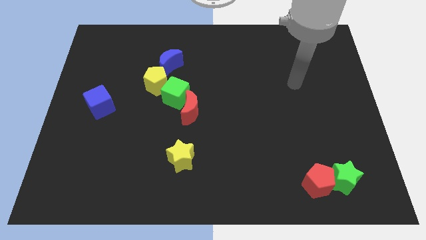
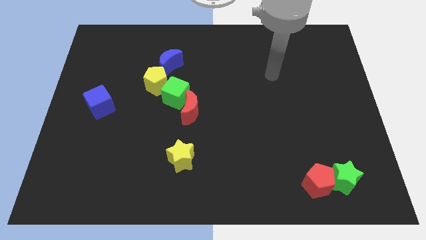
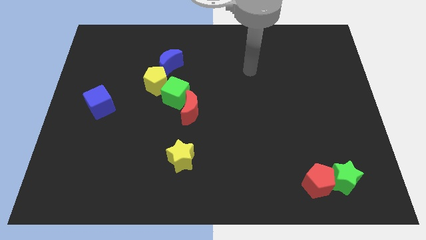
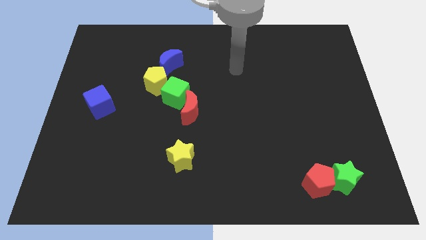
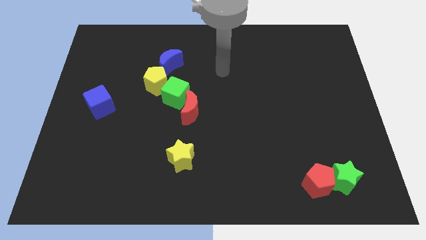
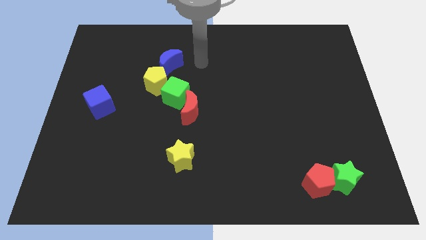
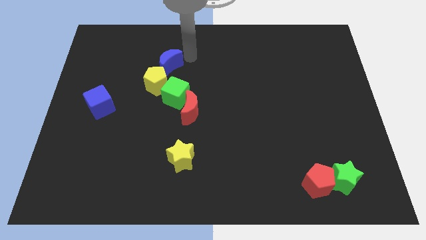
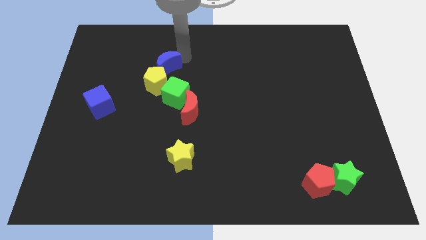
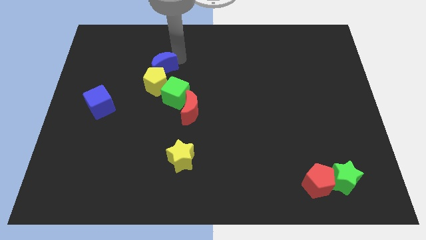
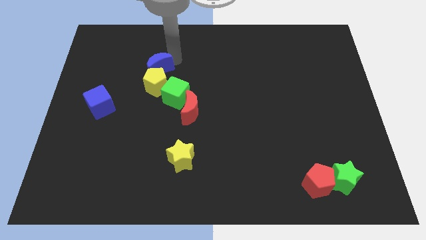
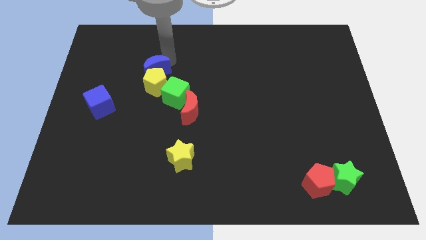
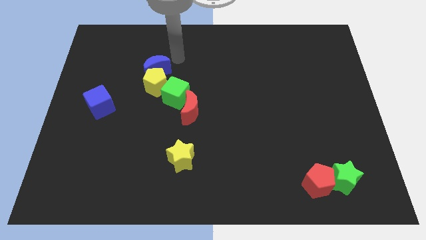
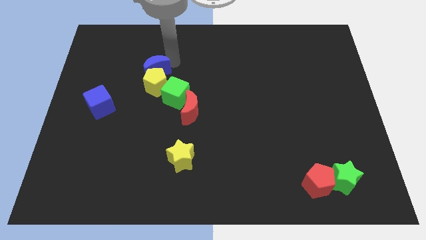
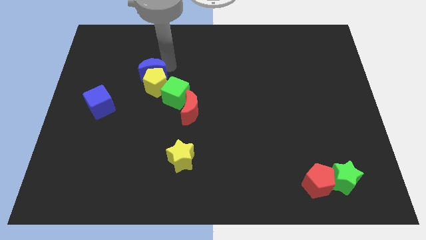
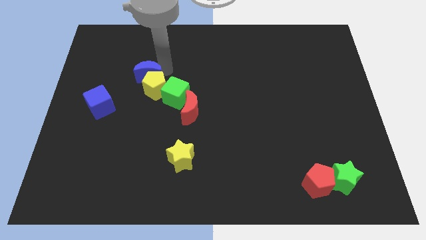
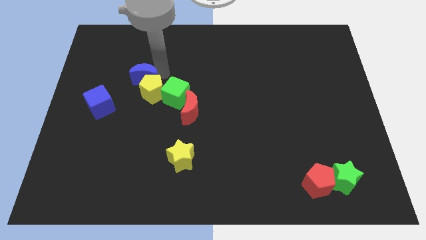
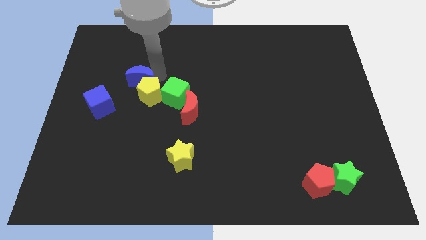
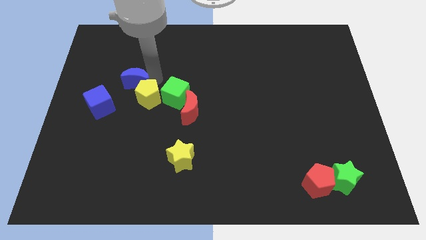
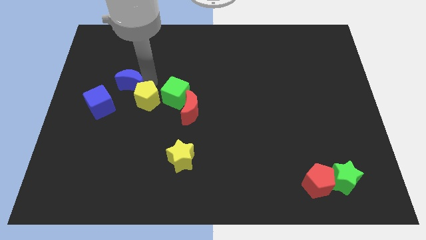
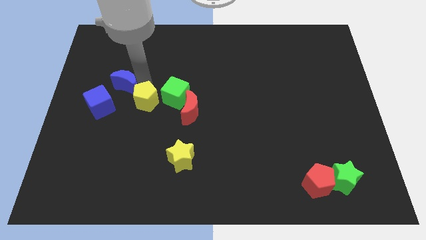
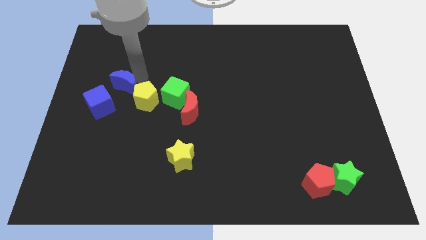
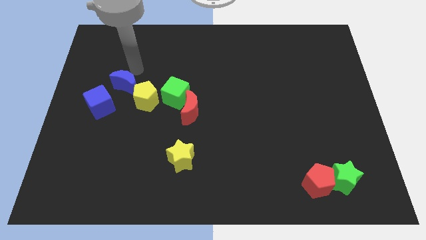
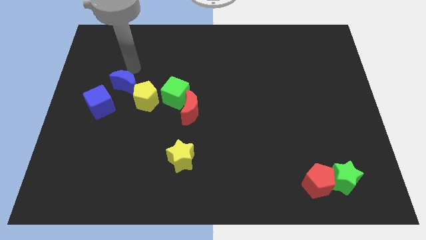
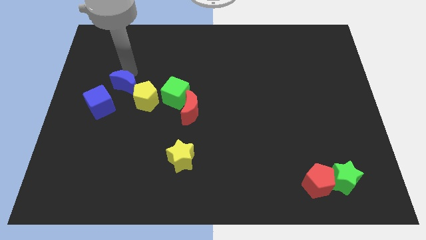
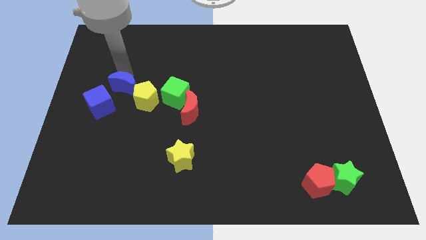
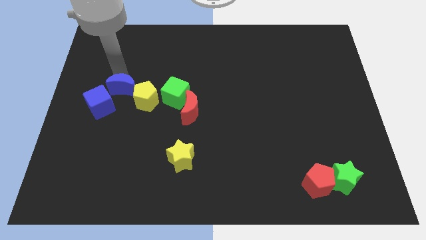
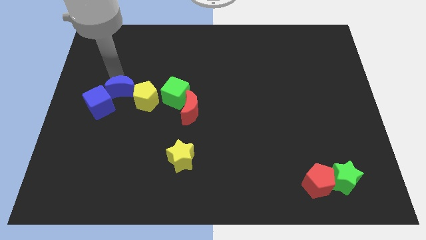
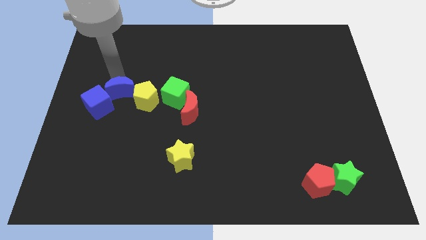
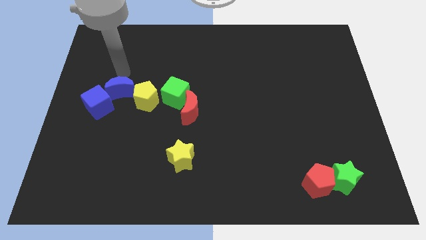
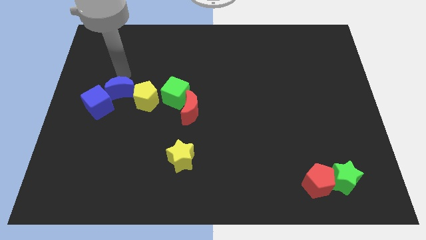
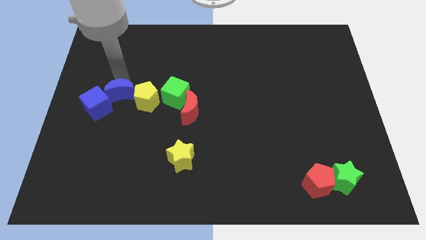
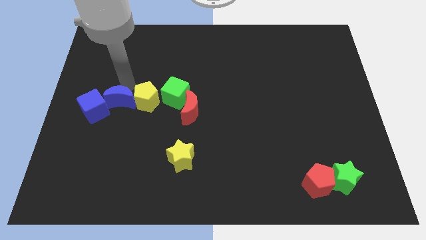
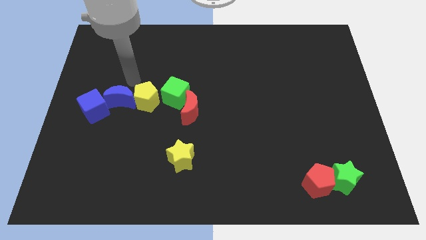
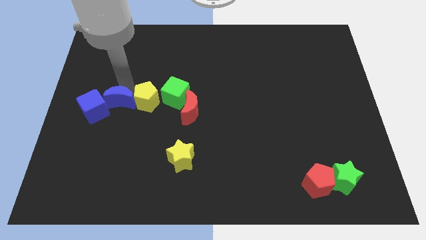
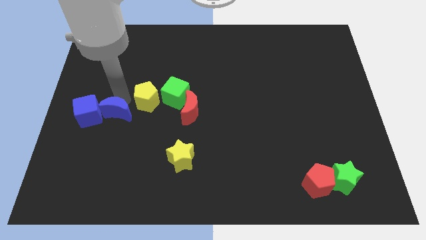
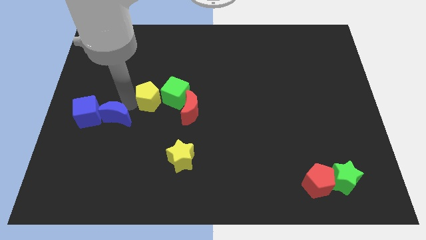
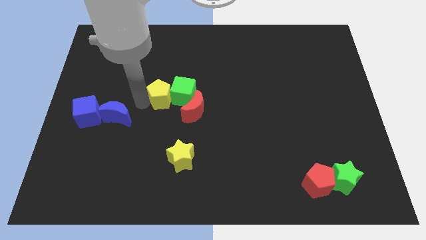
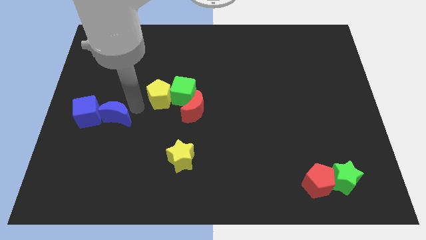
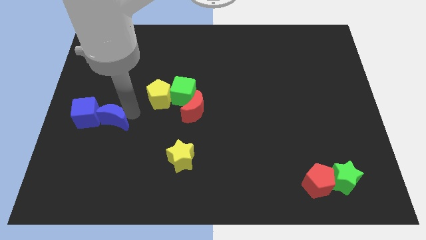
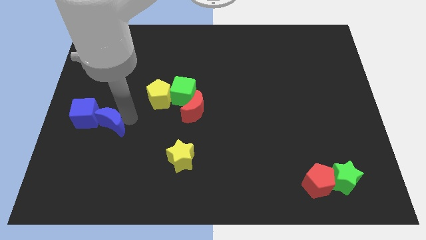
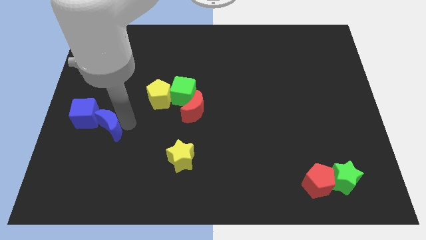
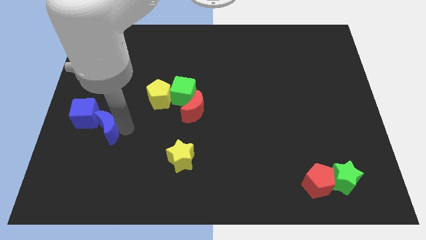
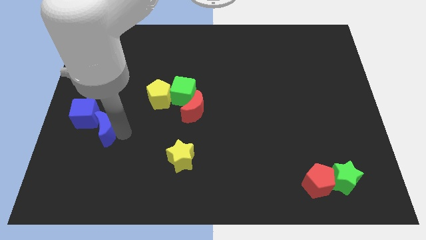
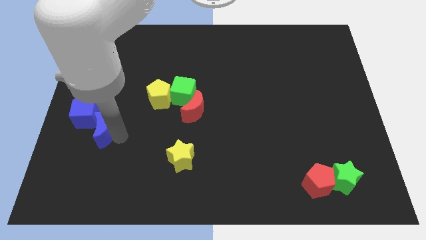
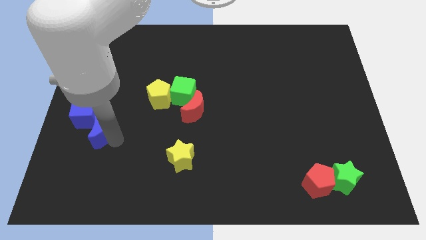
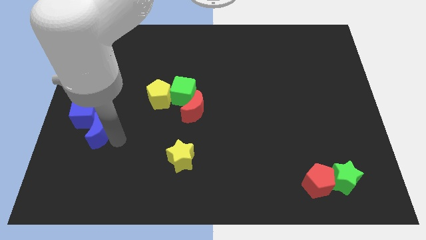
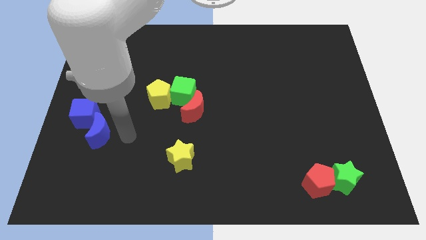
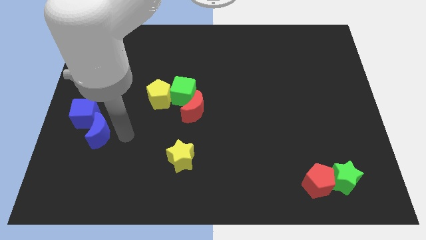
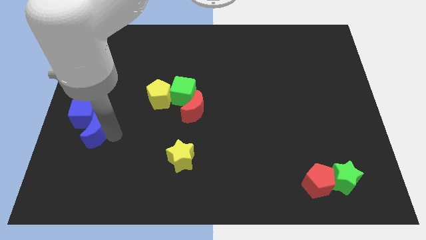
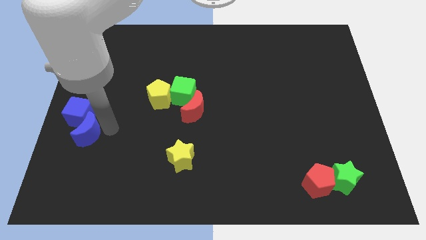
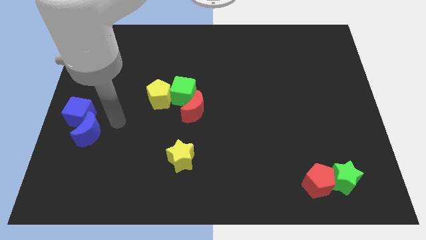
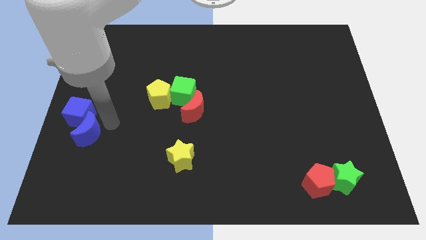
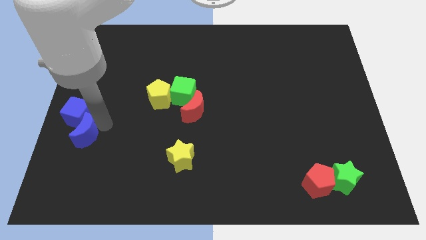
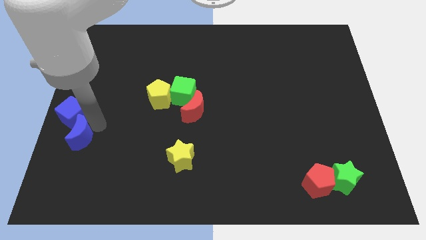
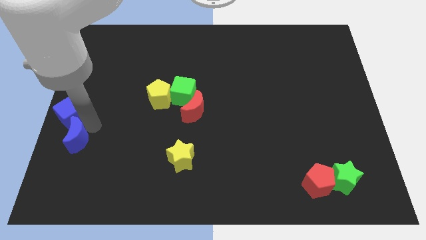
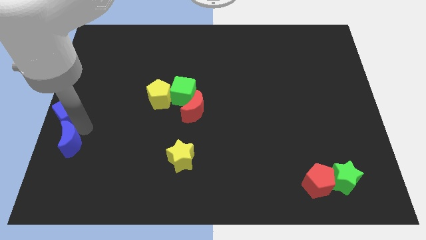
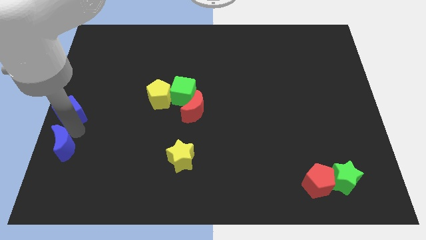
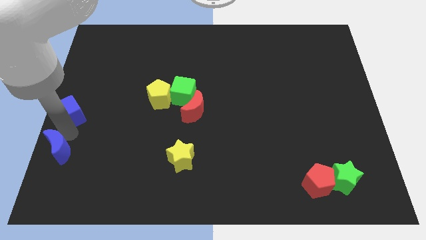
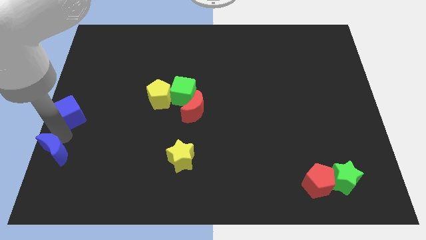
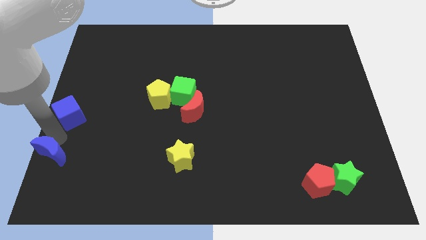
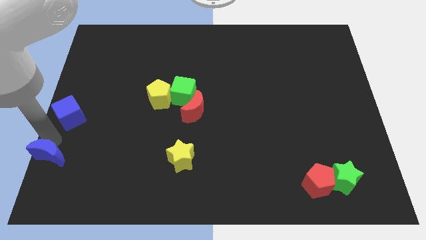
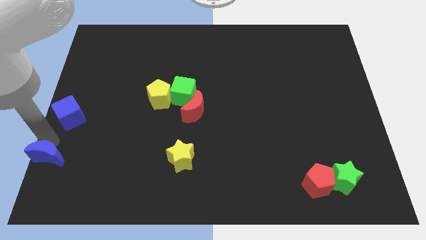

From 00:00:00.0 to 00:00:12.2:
slide the blue moon to the lower left corner
